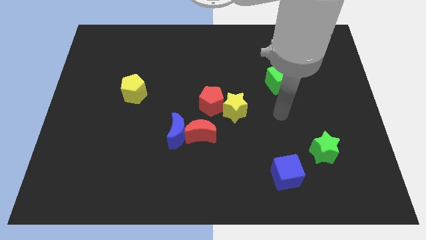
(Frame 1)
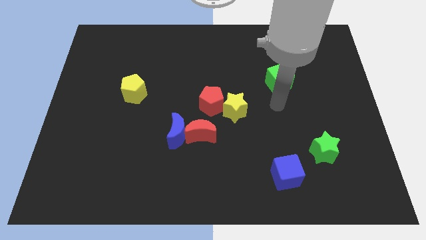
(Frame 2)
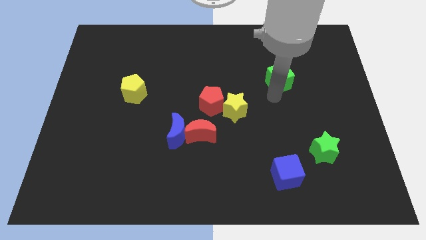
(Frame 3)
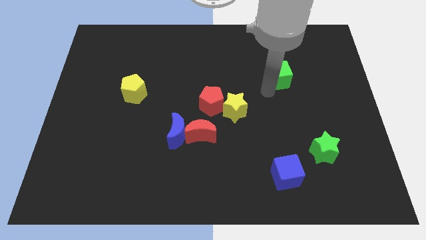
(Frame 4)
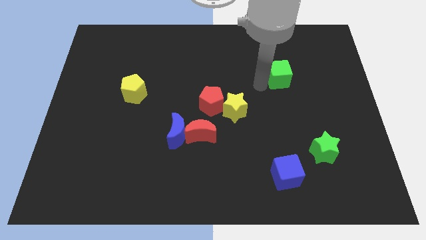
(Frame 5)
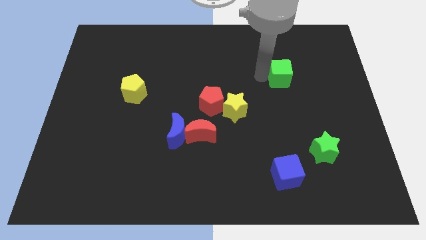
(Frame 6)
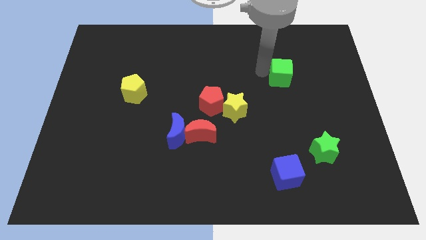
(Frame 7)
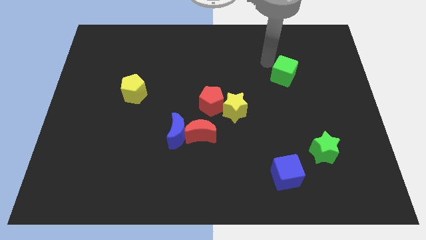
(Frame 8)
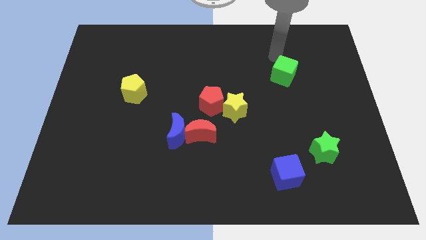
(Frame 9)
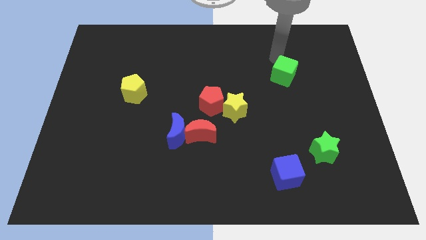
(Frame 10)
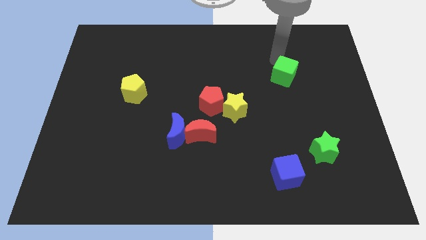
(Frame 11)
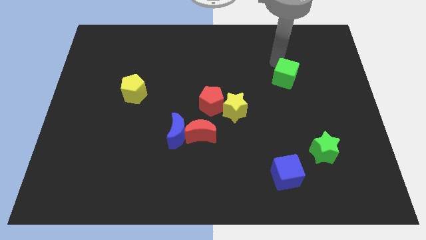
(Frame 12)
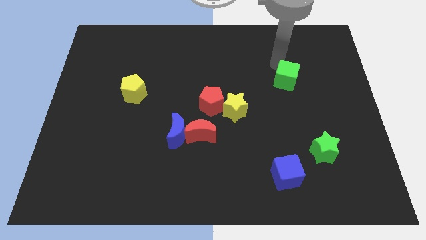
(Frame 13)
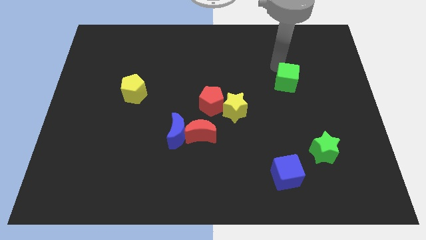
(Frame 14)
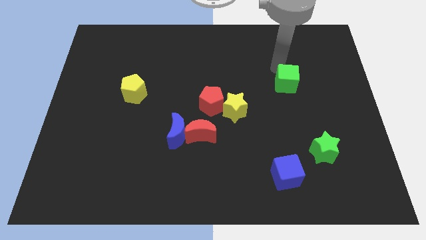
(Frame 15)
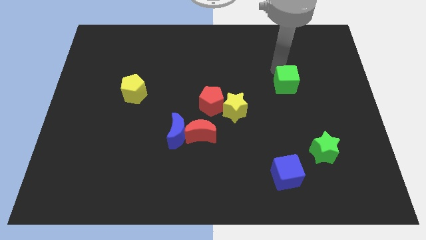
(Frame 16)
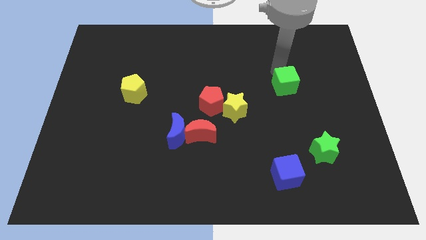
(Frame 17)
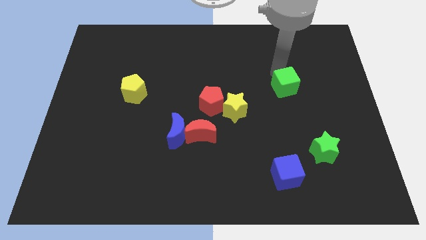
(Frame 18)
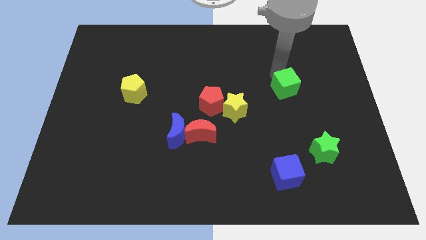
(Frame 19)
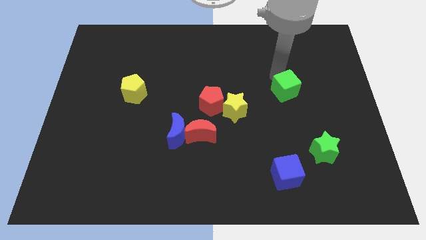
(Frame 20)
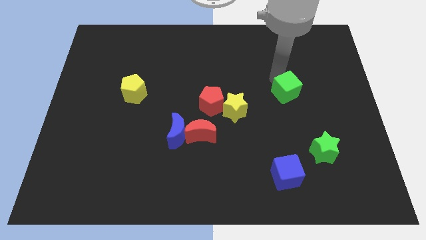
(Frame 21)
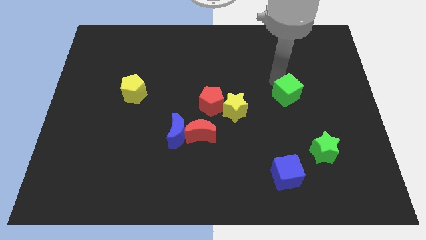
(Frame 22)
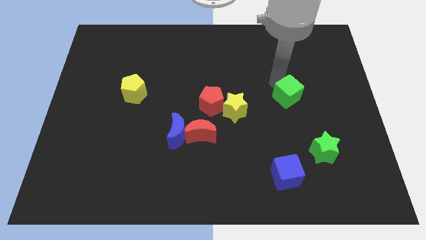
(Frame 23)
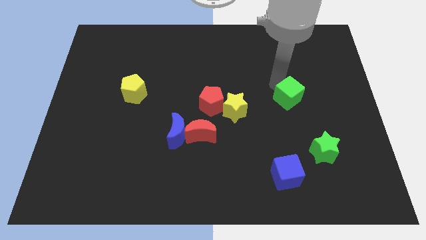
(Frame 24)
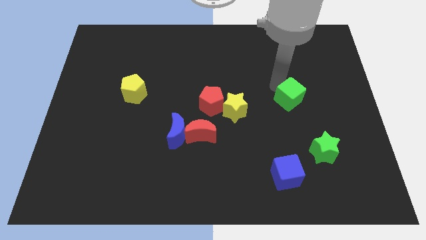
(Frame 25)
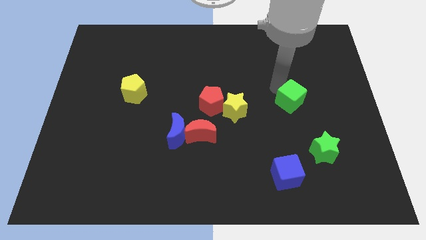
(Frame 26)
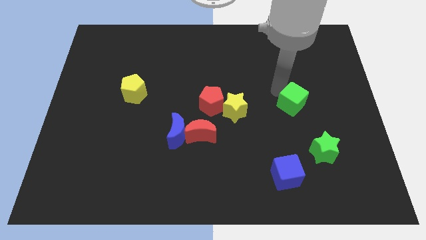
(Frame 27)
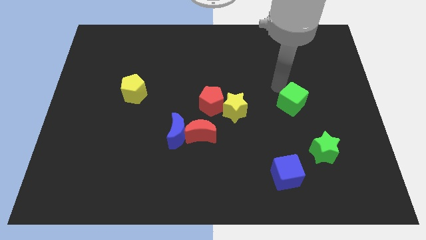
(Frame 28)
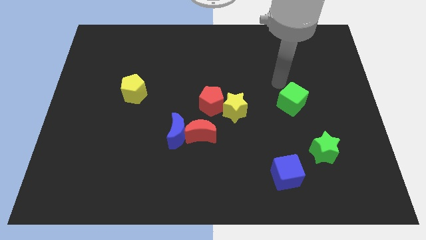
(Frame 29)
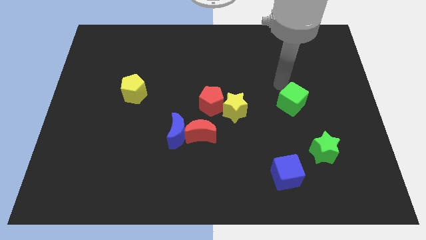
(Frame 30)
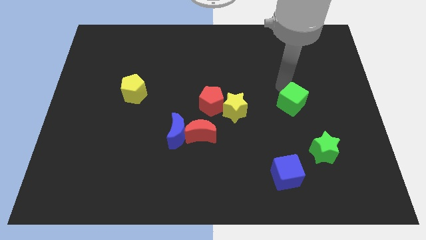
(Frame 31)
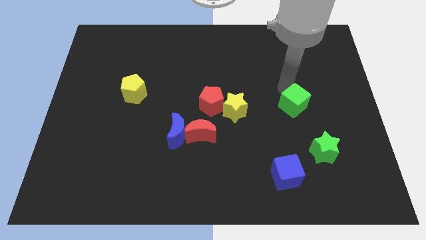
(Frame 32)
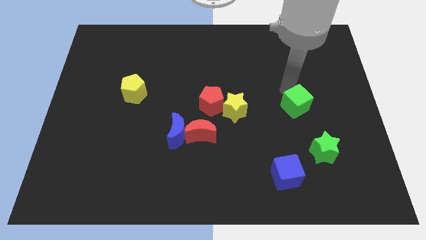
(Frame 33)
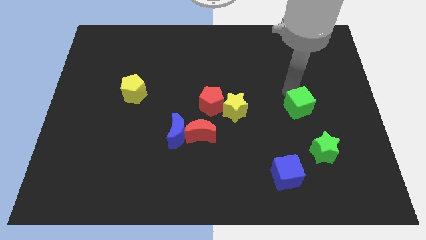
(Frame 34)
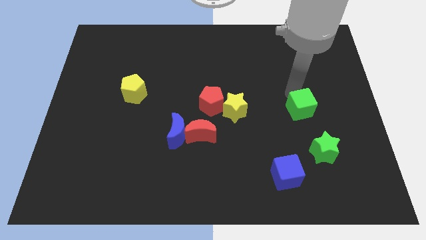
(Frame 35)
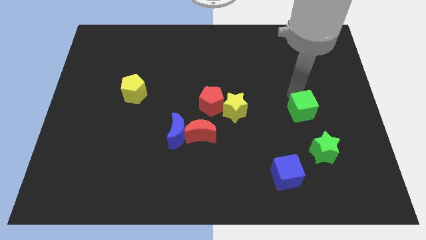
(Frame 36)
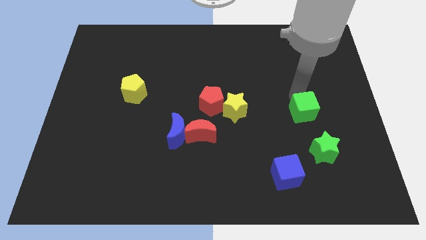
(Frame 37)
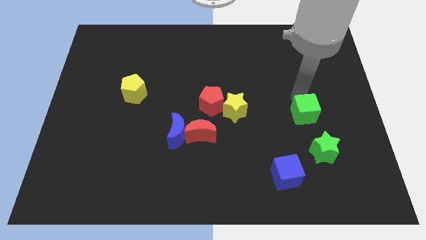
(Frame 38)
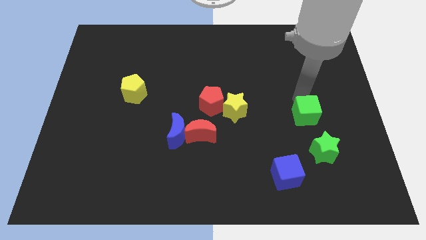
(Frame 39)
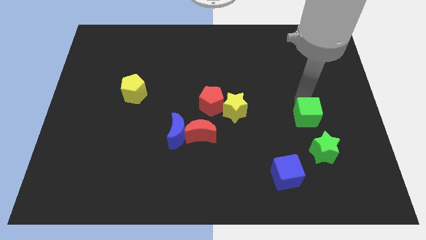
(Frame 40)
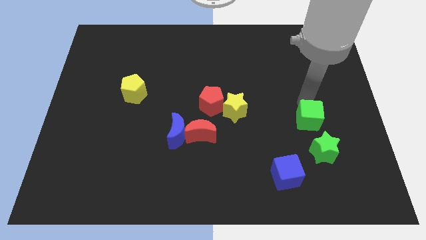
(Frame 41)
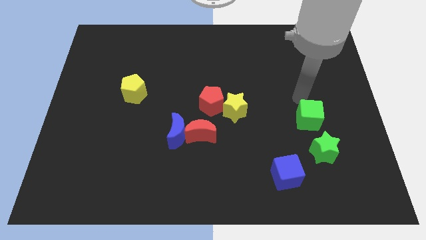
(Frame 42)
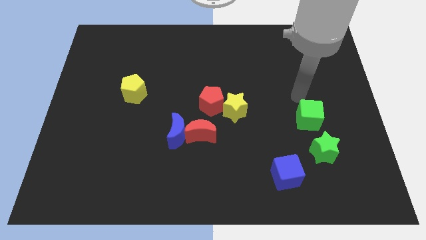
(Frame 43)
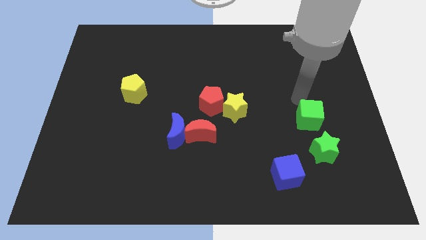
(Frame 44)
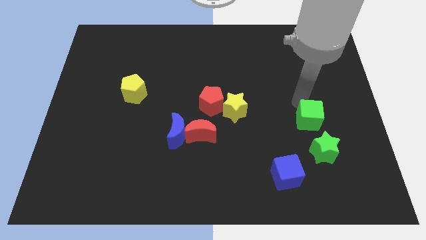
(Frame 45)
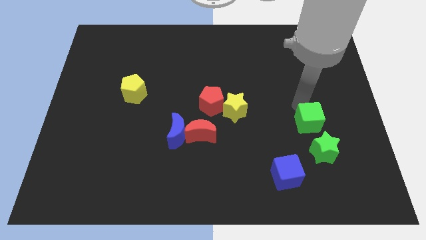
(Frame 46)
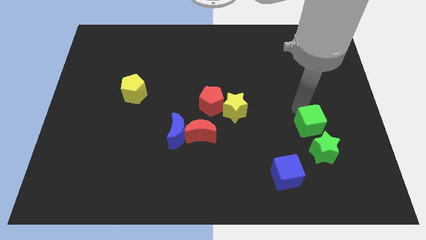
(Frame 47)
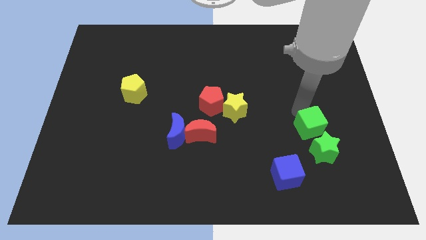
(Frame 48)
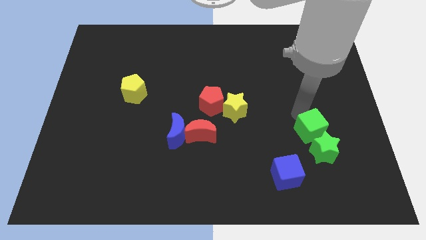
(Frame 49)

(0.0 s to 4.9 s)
slide the green cube next to the green star

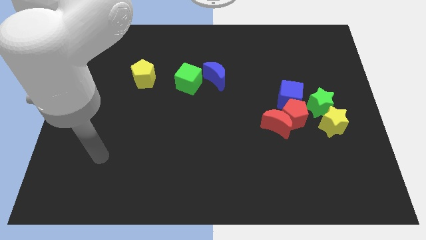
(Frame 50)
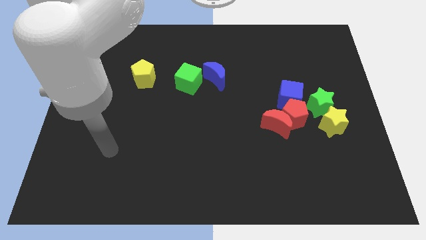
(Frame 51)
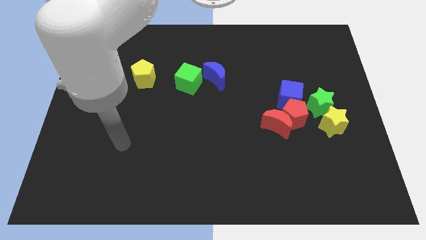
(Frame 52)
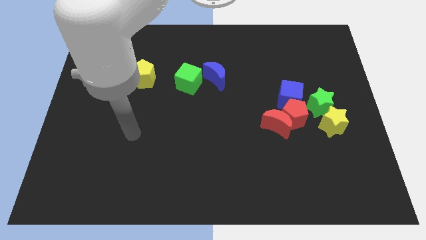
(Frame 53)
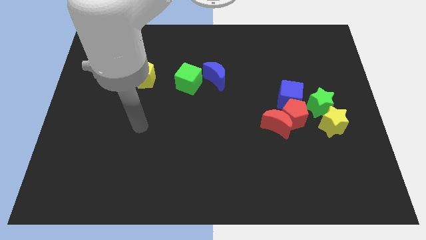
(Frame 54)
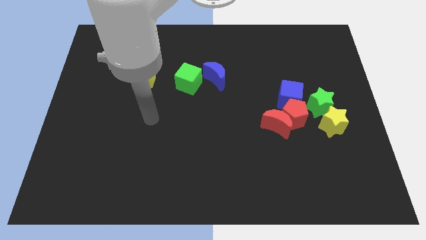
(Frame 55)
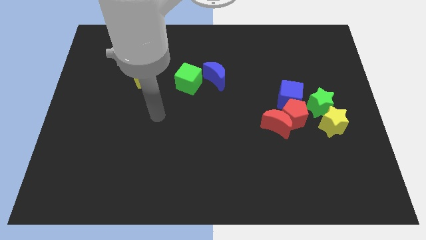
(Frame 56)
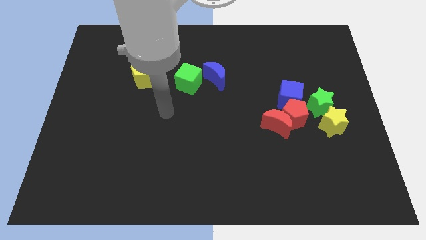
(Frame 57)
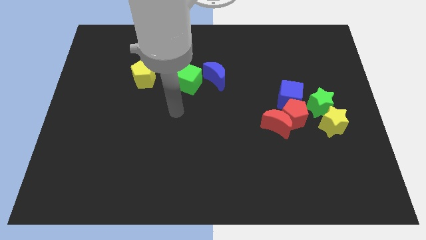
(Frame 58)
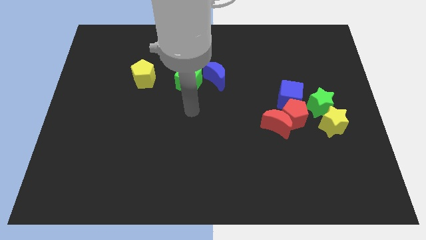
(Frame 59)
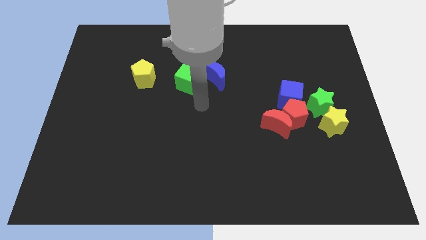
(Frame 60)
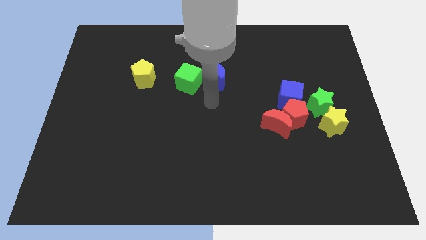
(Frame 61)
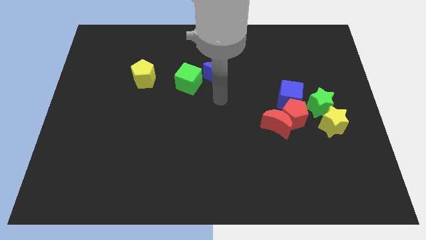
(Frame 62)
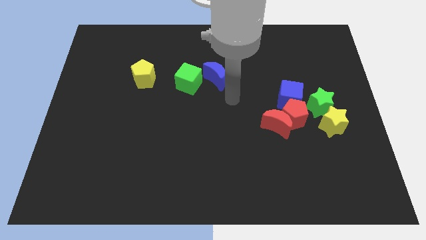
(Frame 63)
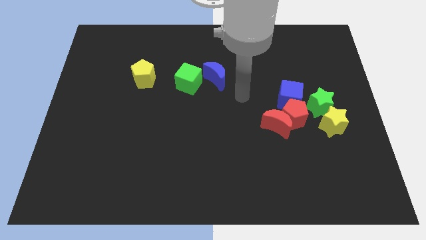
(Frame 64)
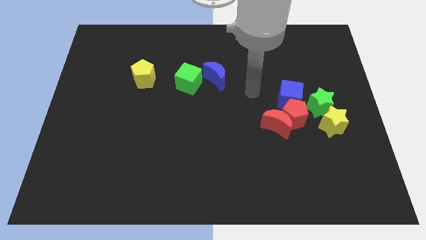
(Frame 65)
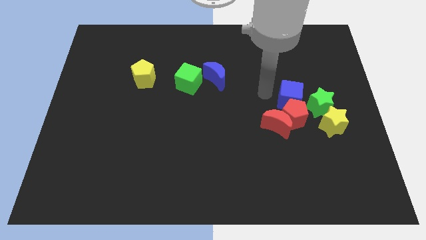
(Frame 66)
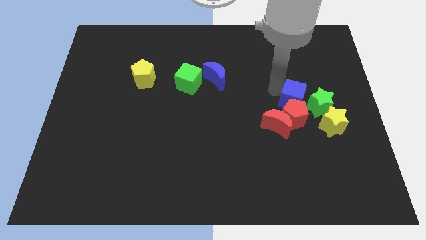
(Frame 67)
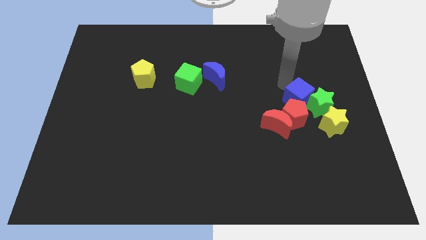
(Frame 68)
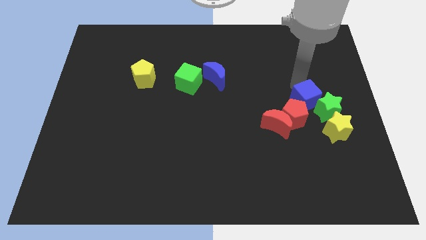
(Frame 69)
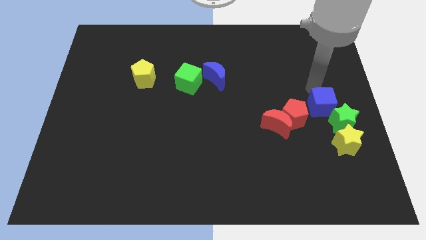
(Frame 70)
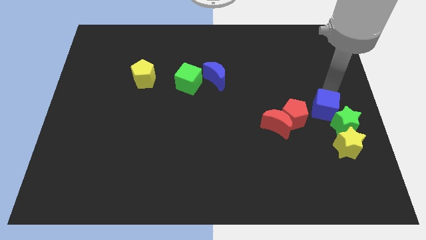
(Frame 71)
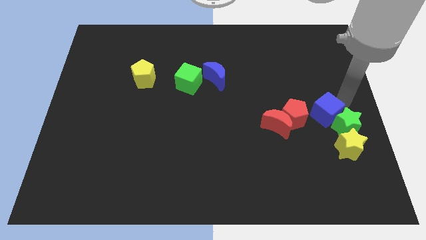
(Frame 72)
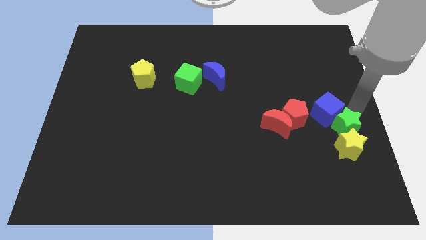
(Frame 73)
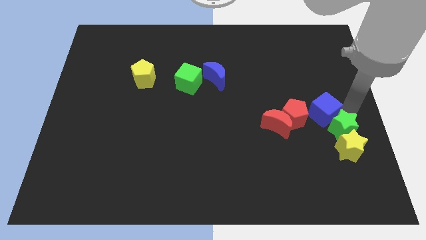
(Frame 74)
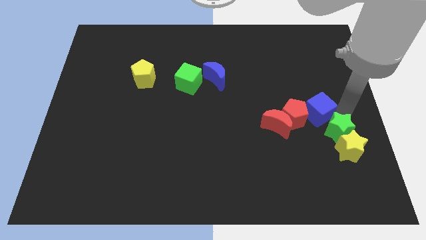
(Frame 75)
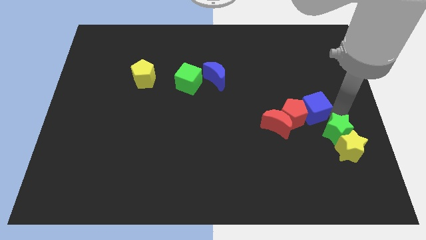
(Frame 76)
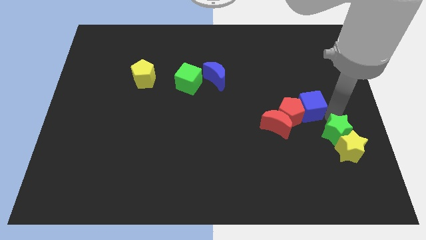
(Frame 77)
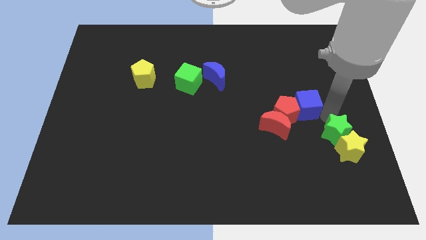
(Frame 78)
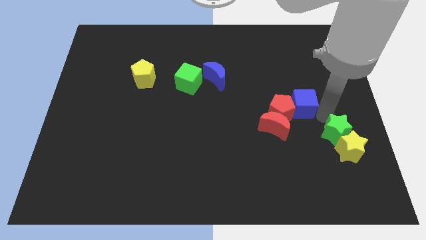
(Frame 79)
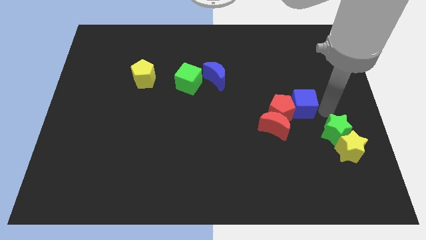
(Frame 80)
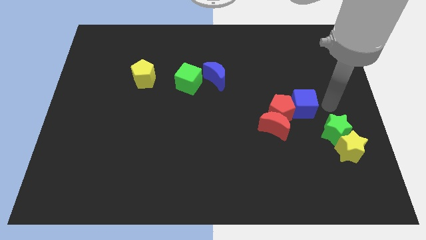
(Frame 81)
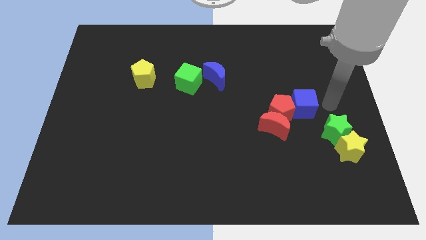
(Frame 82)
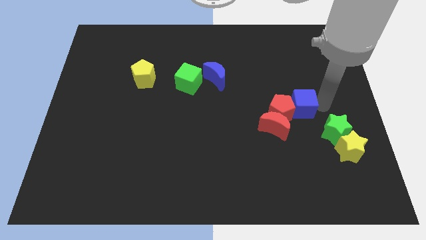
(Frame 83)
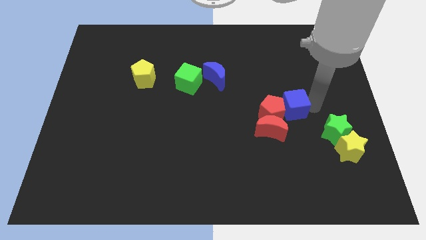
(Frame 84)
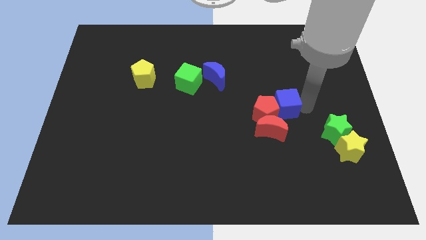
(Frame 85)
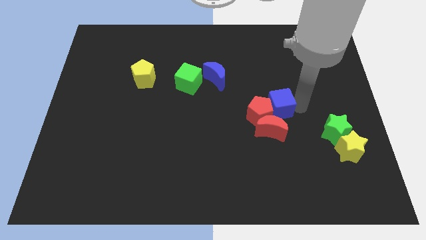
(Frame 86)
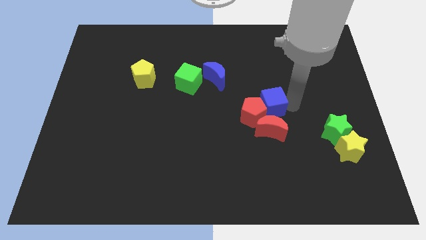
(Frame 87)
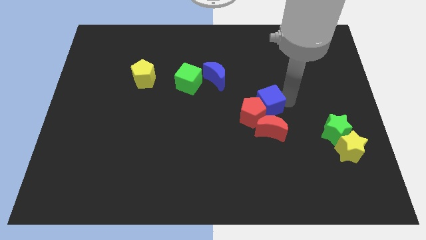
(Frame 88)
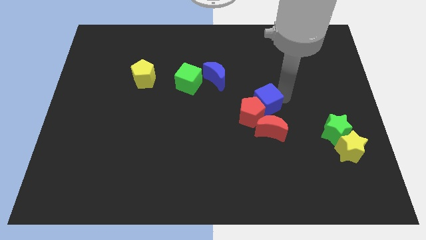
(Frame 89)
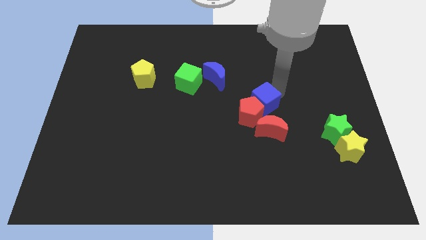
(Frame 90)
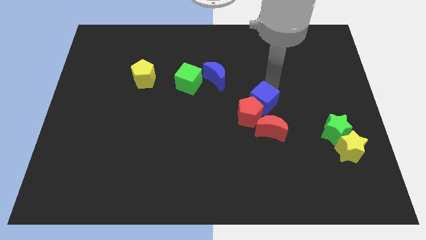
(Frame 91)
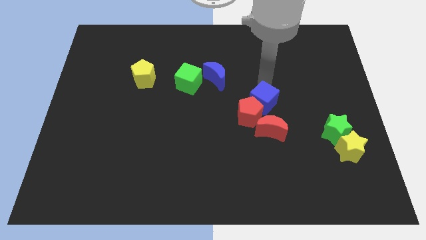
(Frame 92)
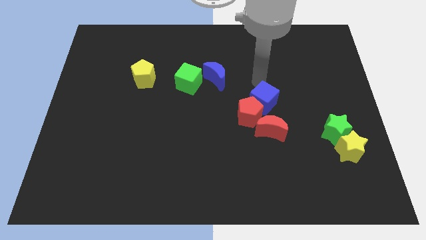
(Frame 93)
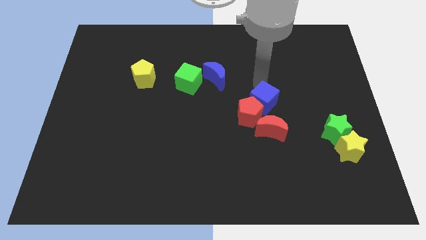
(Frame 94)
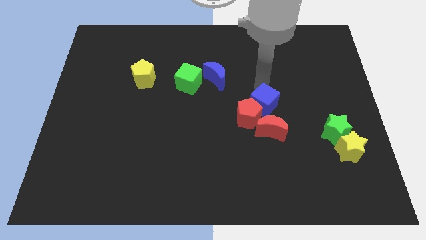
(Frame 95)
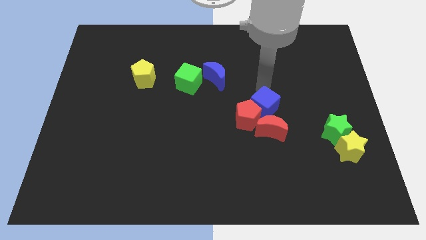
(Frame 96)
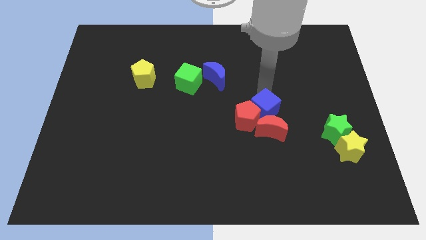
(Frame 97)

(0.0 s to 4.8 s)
put the blue cube to the red moon
